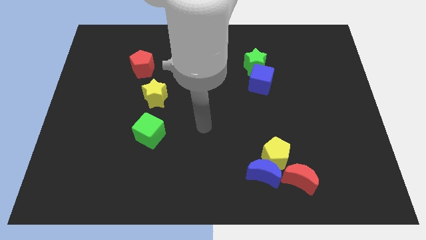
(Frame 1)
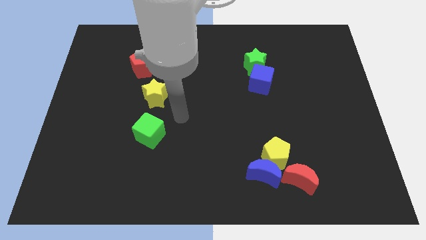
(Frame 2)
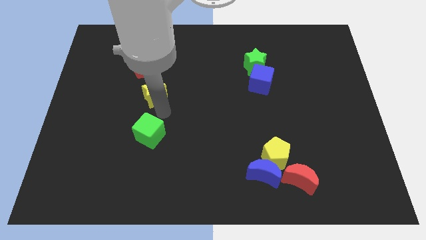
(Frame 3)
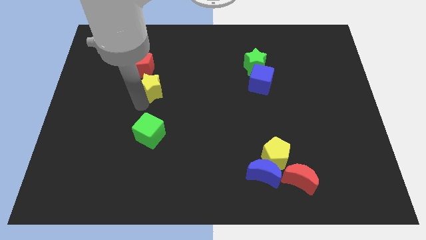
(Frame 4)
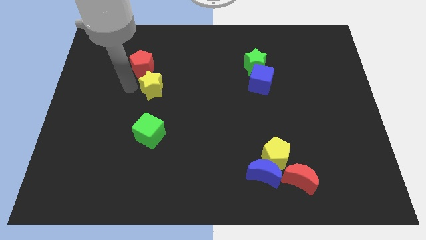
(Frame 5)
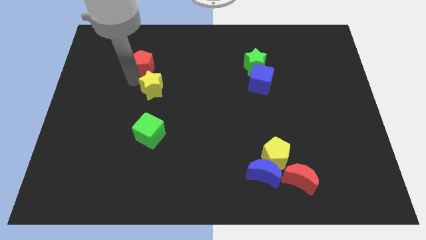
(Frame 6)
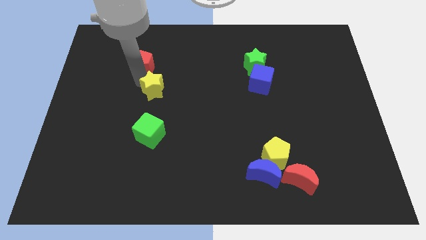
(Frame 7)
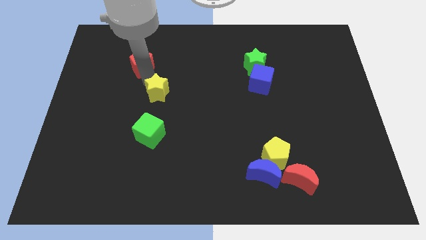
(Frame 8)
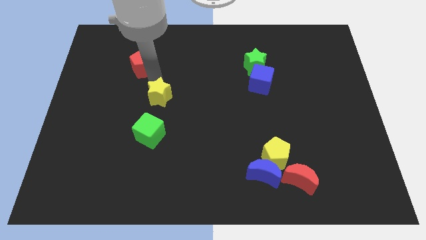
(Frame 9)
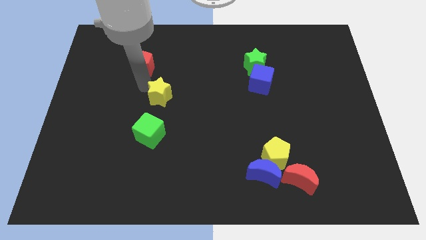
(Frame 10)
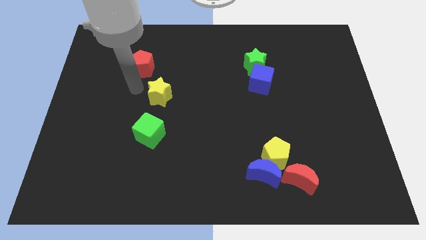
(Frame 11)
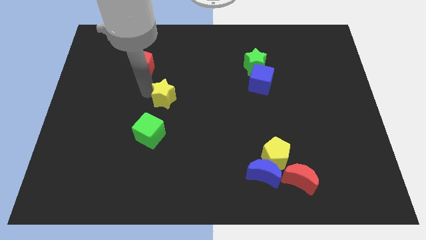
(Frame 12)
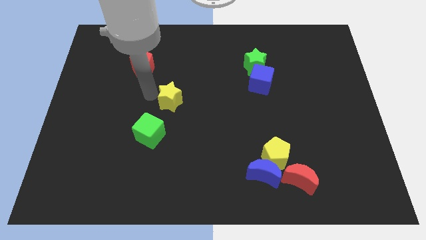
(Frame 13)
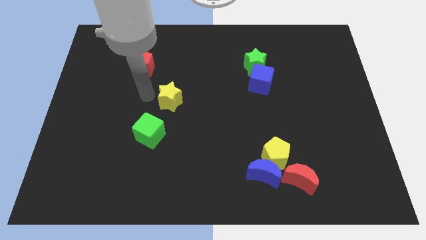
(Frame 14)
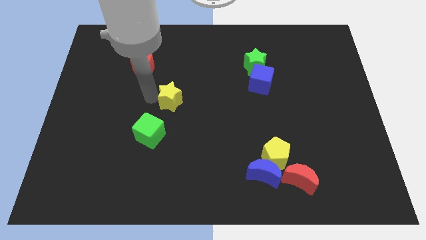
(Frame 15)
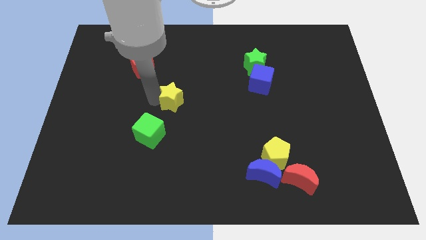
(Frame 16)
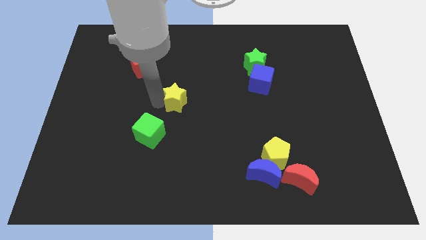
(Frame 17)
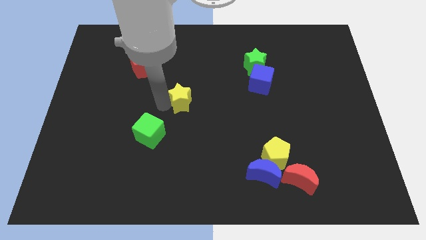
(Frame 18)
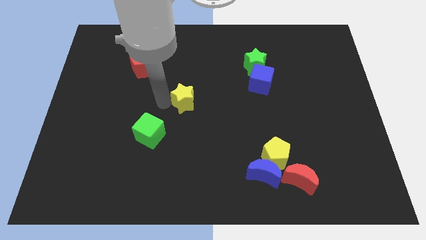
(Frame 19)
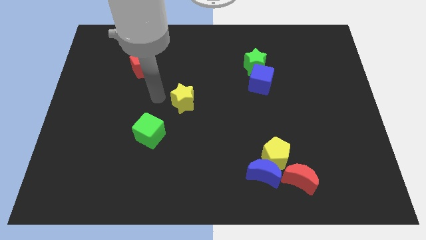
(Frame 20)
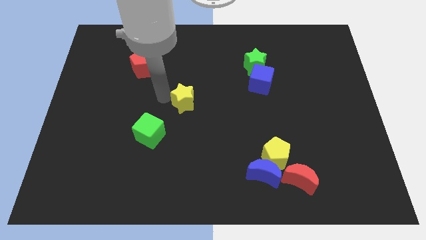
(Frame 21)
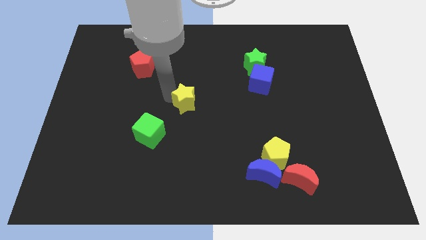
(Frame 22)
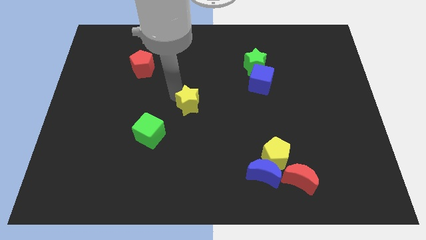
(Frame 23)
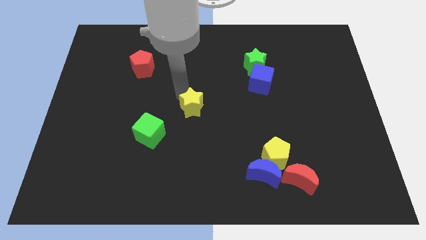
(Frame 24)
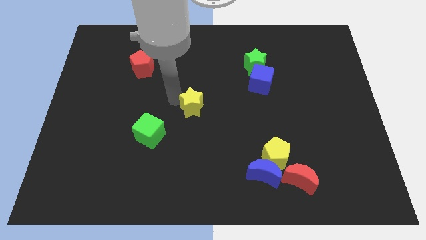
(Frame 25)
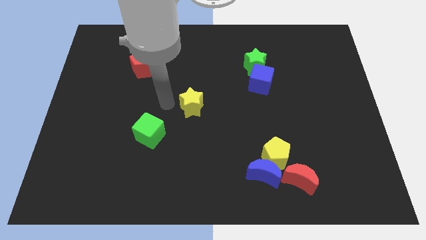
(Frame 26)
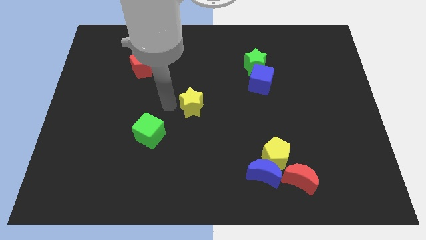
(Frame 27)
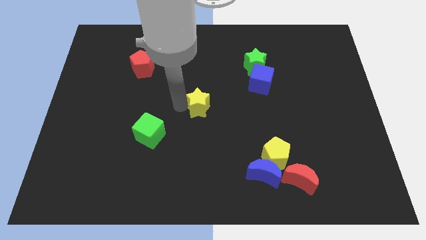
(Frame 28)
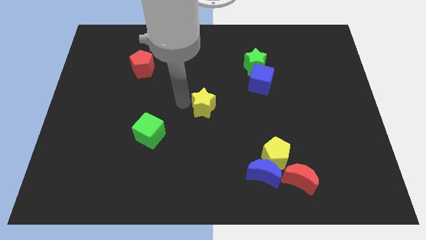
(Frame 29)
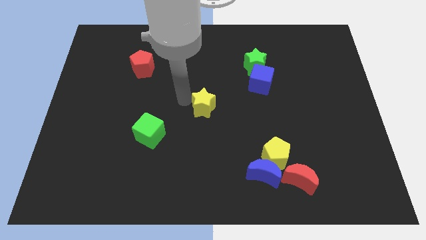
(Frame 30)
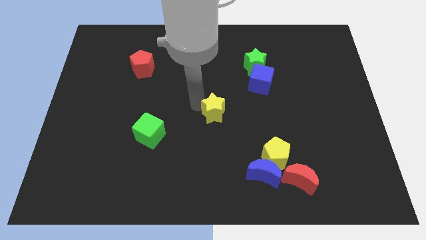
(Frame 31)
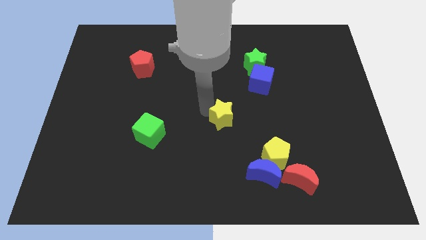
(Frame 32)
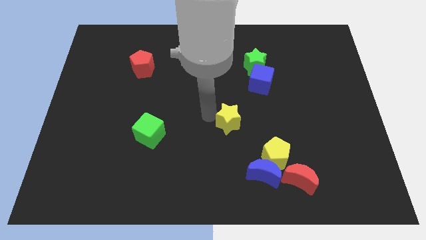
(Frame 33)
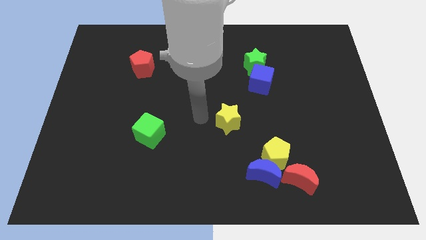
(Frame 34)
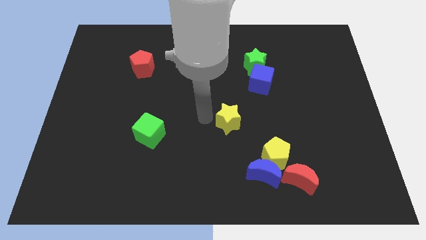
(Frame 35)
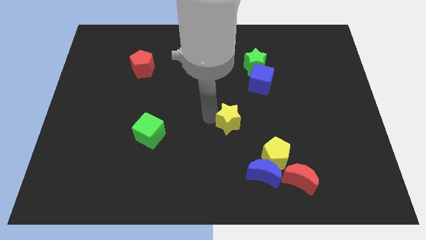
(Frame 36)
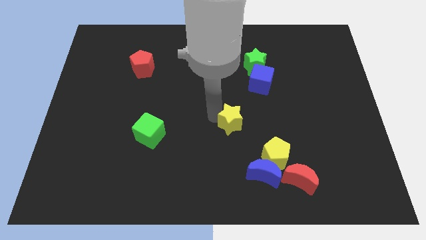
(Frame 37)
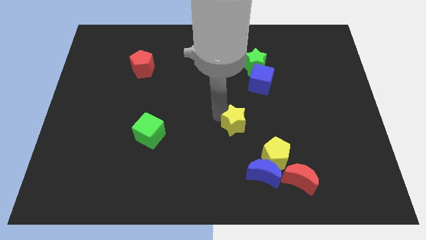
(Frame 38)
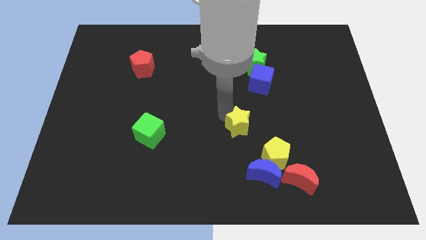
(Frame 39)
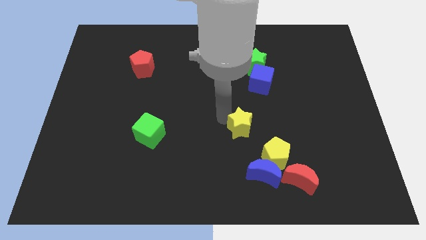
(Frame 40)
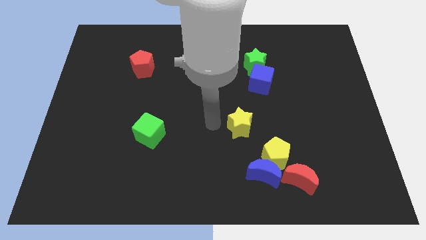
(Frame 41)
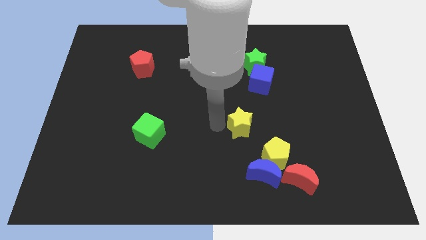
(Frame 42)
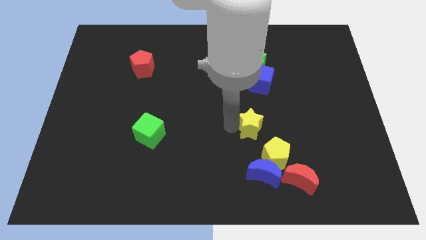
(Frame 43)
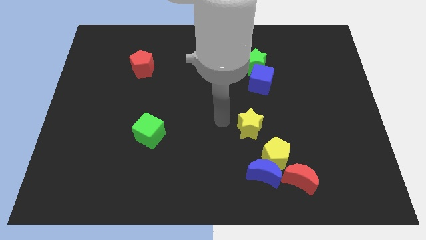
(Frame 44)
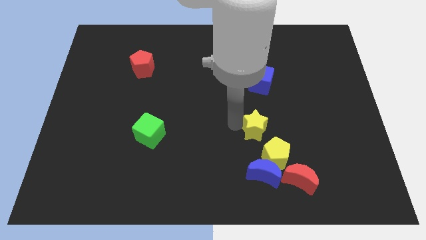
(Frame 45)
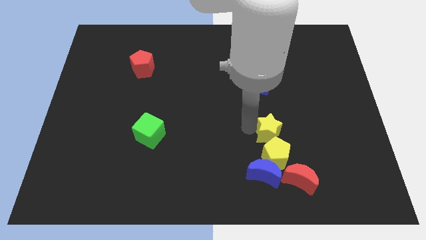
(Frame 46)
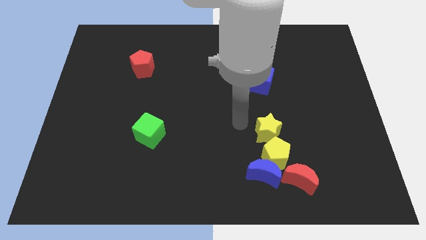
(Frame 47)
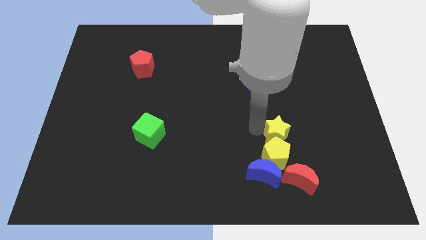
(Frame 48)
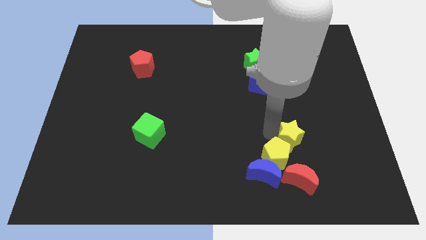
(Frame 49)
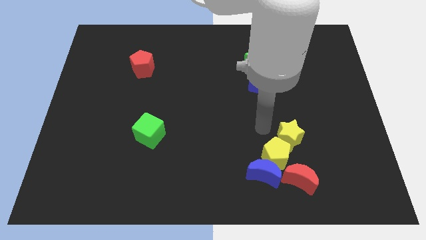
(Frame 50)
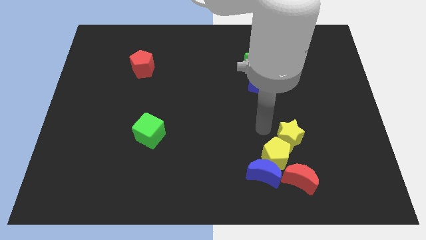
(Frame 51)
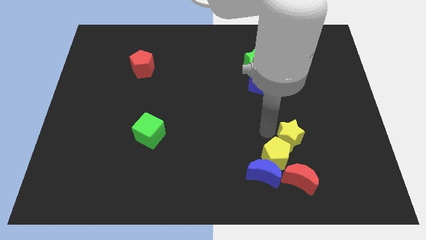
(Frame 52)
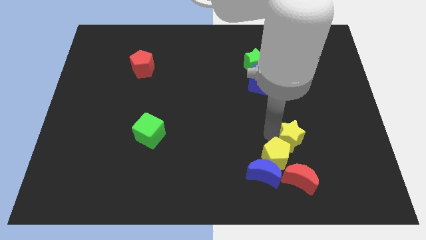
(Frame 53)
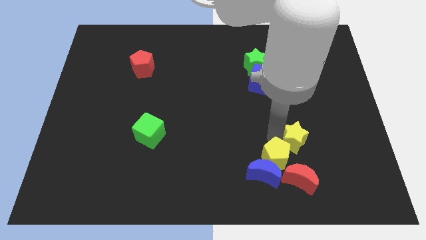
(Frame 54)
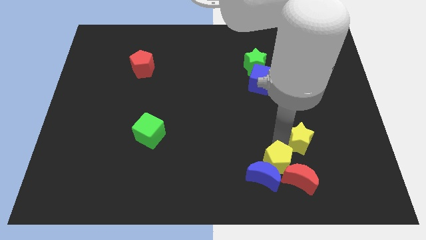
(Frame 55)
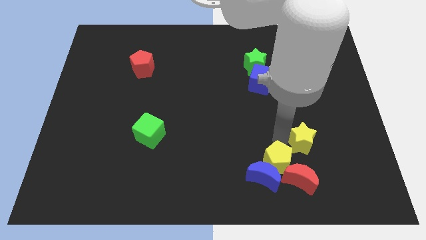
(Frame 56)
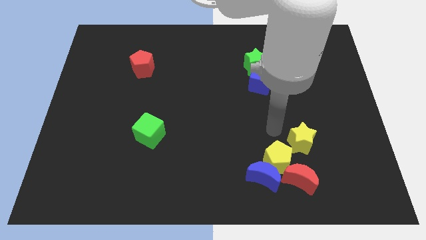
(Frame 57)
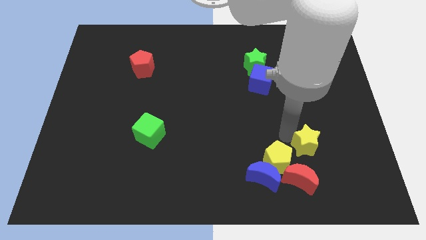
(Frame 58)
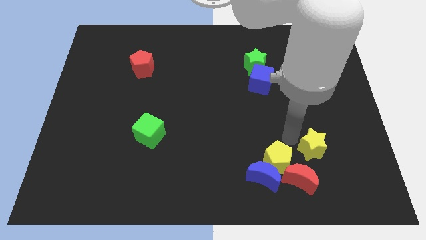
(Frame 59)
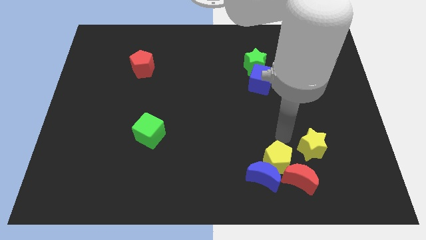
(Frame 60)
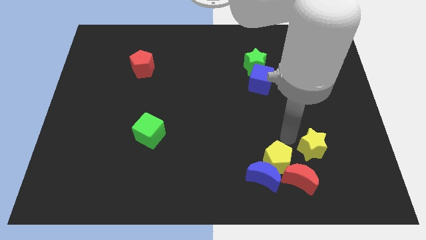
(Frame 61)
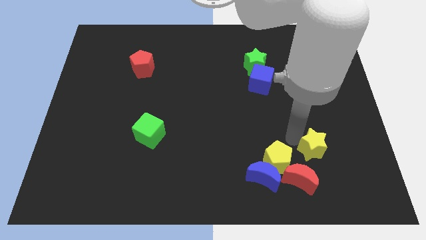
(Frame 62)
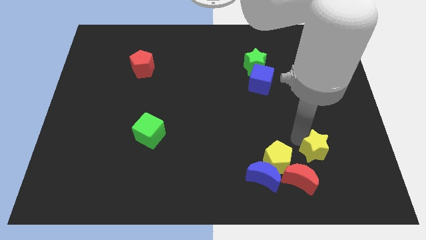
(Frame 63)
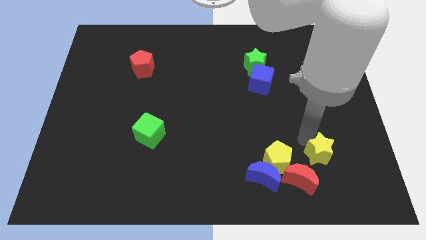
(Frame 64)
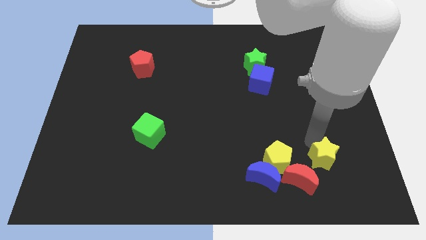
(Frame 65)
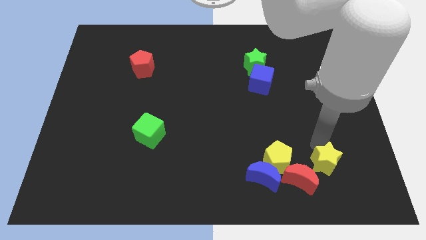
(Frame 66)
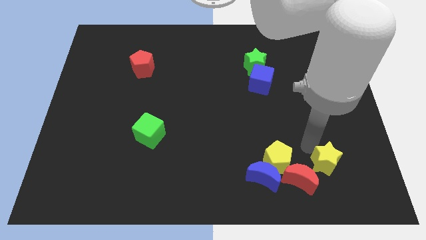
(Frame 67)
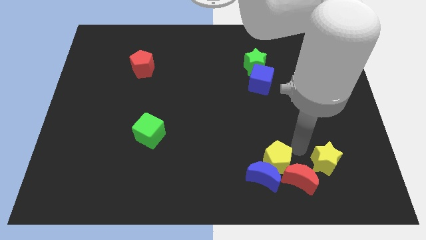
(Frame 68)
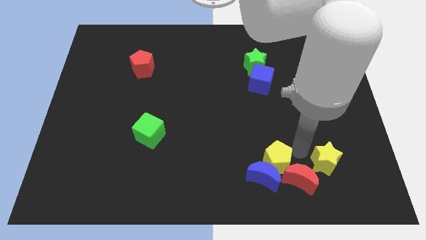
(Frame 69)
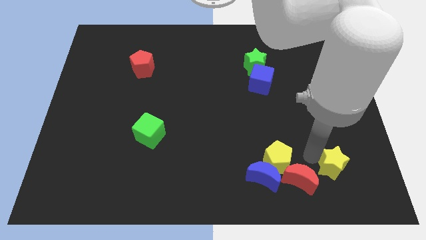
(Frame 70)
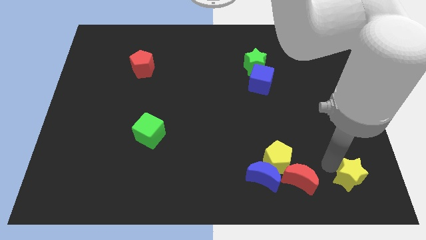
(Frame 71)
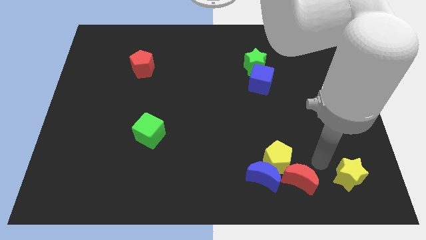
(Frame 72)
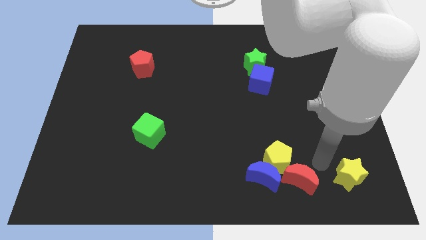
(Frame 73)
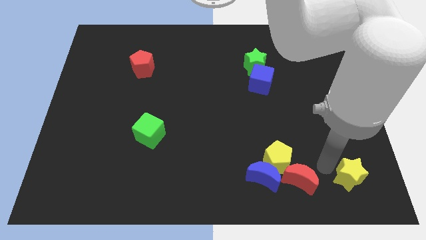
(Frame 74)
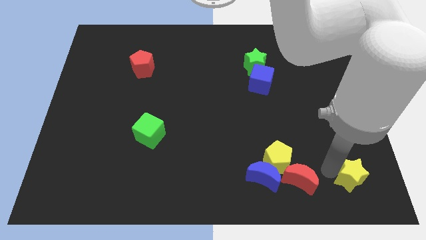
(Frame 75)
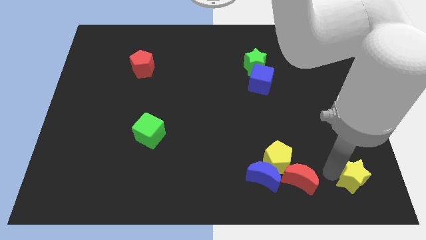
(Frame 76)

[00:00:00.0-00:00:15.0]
slide the yellow star to the lower right corner
